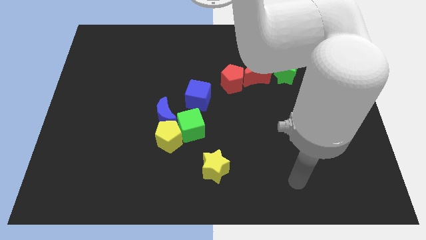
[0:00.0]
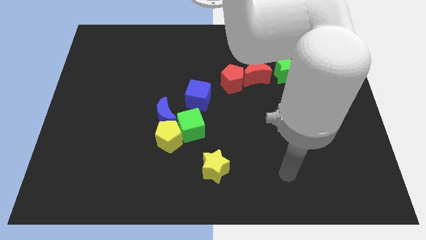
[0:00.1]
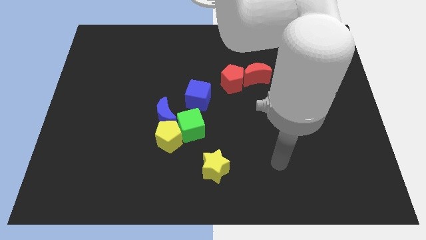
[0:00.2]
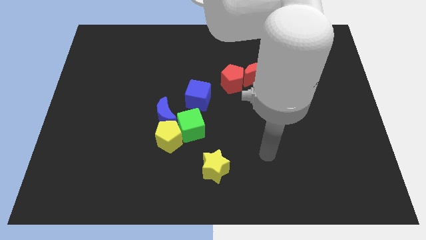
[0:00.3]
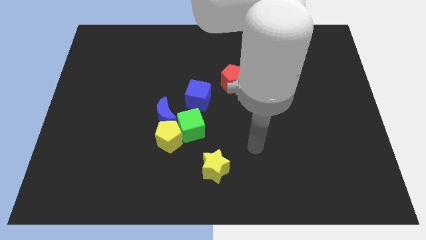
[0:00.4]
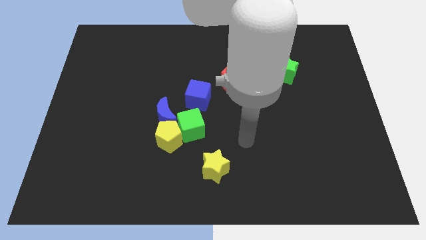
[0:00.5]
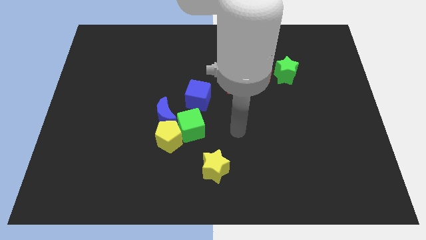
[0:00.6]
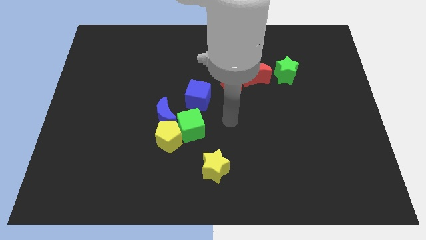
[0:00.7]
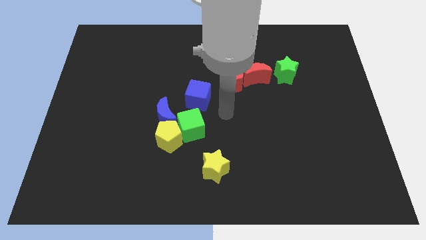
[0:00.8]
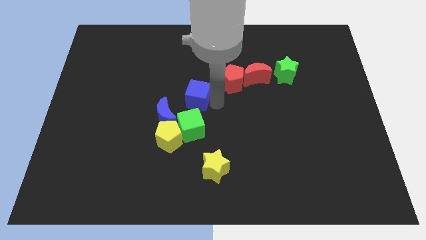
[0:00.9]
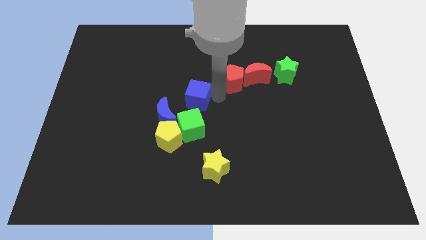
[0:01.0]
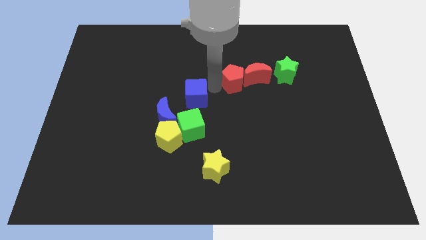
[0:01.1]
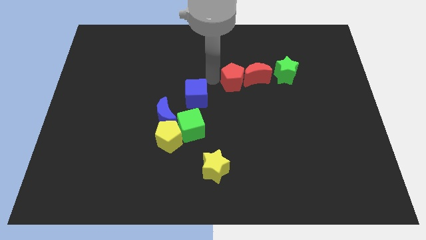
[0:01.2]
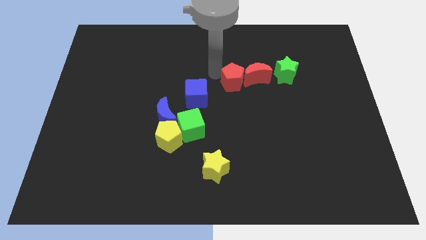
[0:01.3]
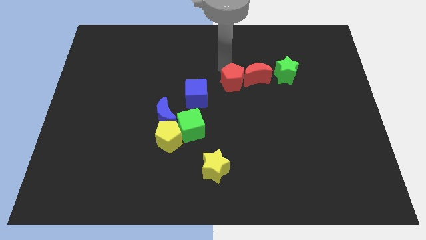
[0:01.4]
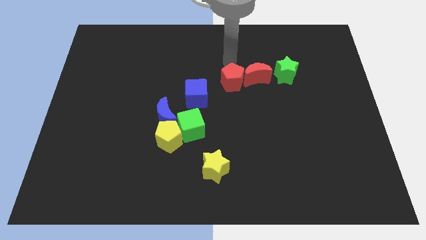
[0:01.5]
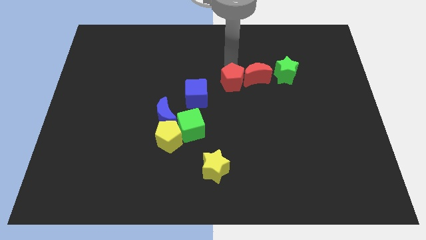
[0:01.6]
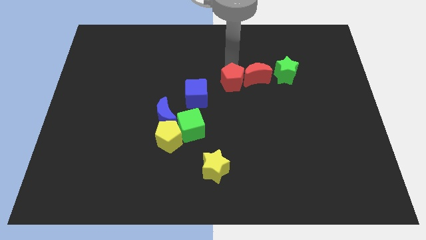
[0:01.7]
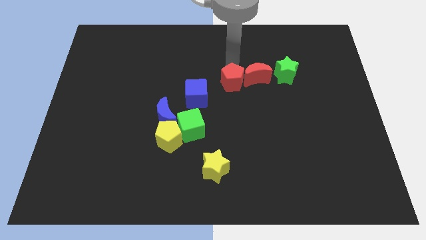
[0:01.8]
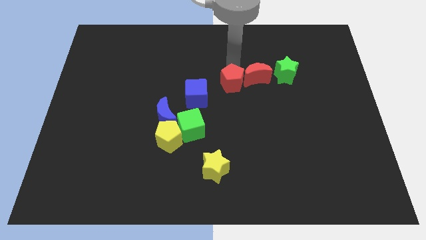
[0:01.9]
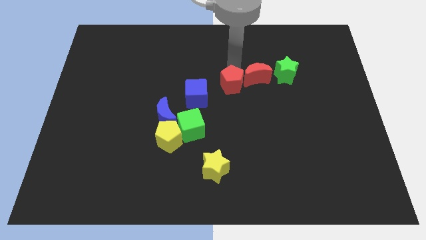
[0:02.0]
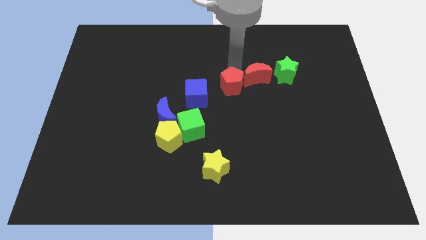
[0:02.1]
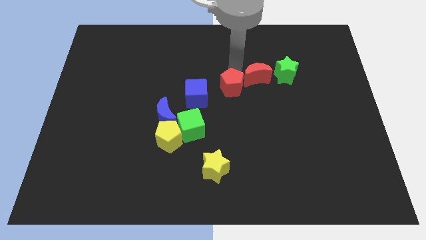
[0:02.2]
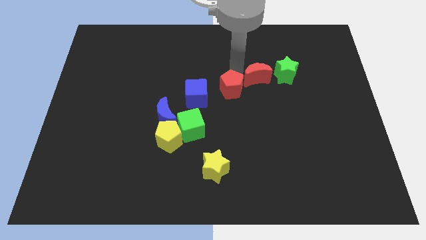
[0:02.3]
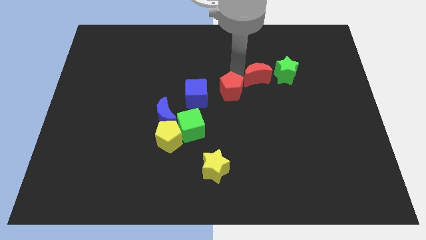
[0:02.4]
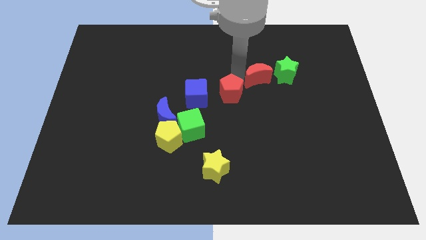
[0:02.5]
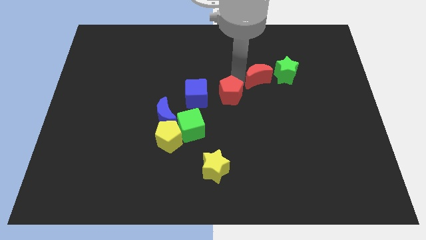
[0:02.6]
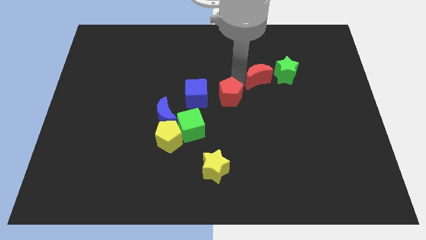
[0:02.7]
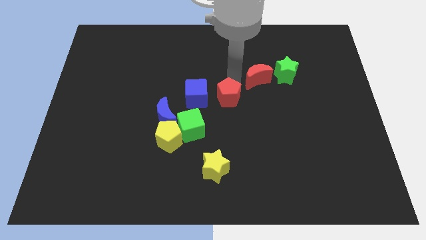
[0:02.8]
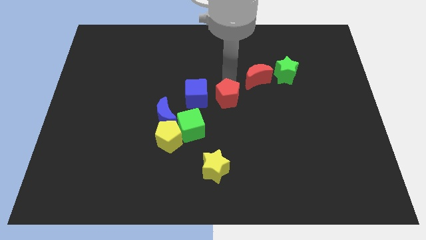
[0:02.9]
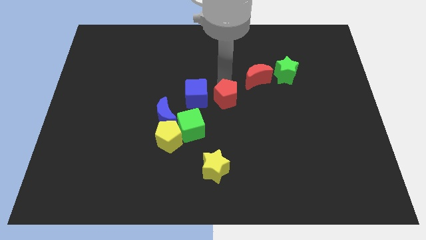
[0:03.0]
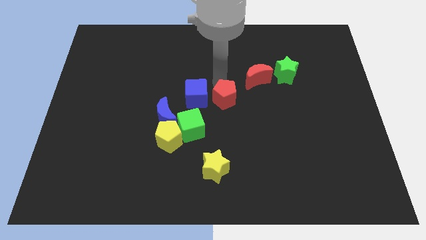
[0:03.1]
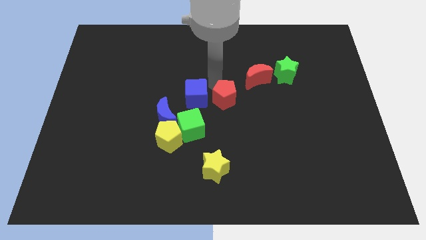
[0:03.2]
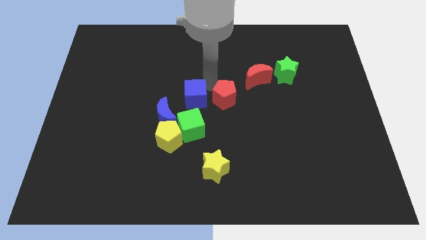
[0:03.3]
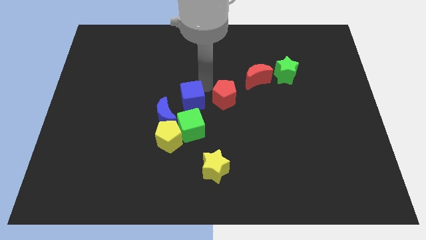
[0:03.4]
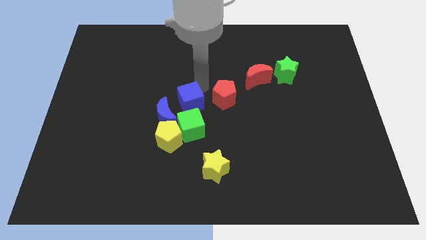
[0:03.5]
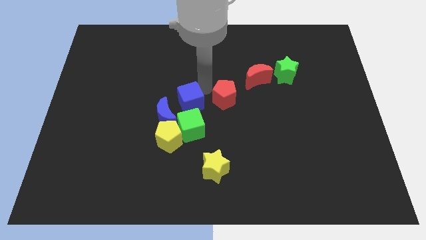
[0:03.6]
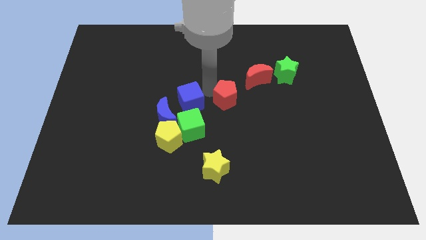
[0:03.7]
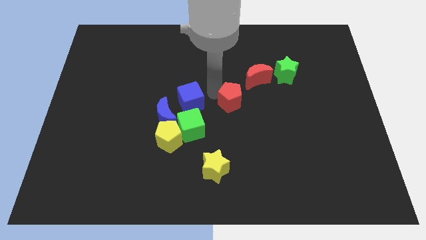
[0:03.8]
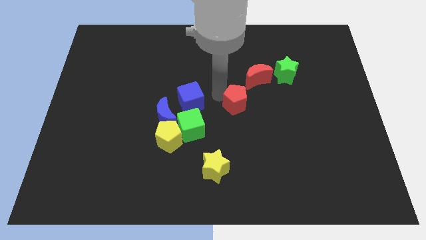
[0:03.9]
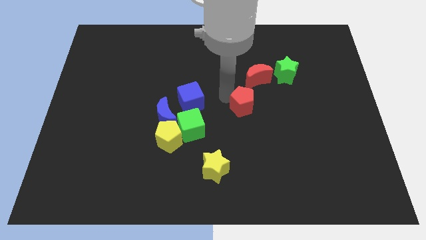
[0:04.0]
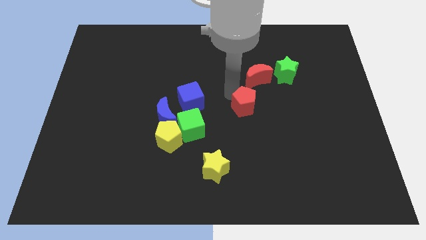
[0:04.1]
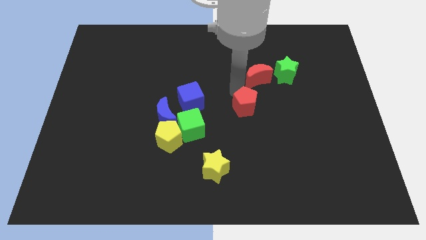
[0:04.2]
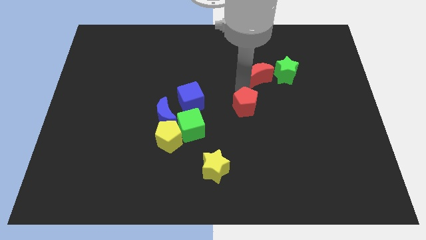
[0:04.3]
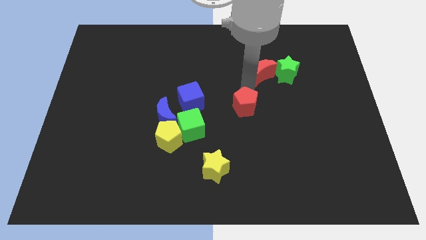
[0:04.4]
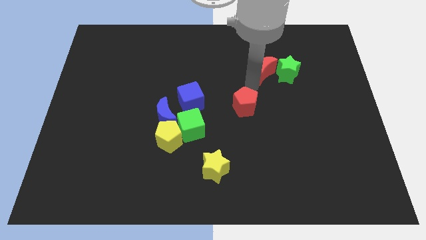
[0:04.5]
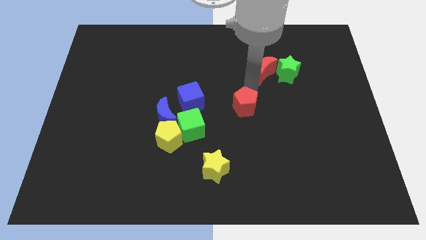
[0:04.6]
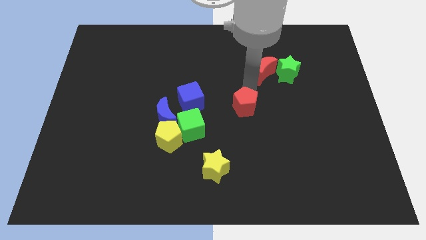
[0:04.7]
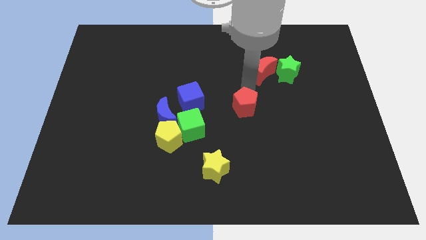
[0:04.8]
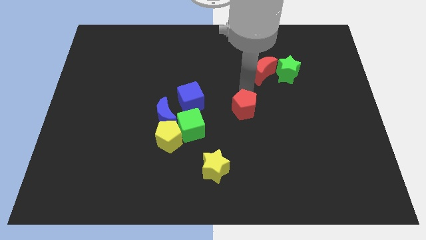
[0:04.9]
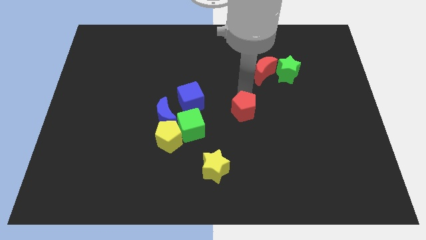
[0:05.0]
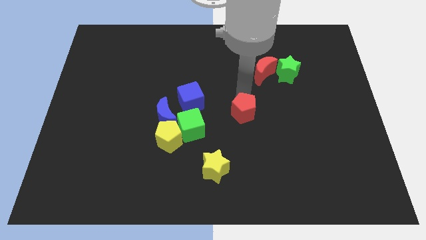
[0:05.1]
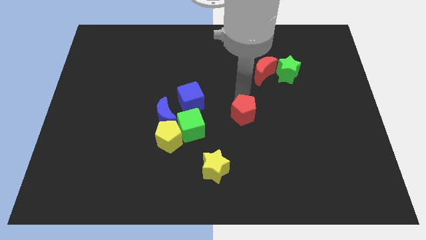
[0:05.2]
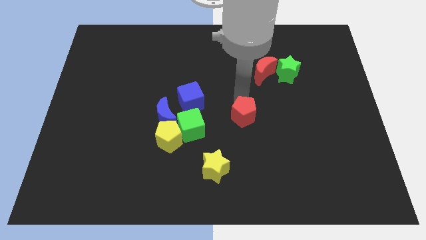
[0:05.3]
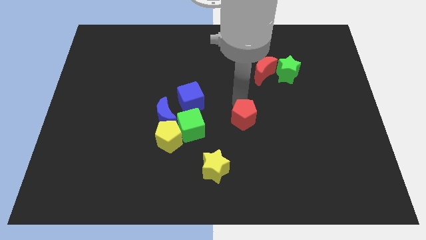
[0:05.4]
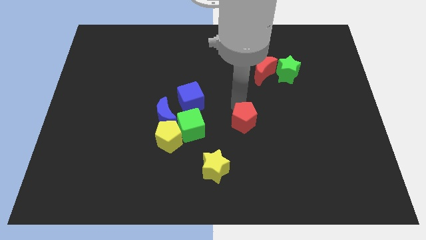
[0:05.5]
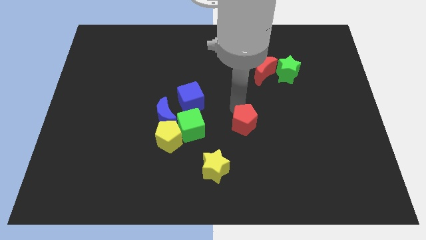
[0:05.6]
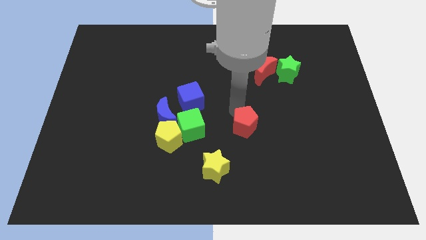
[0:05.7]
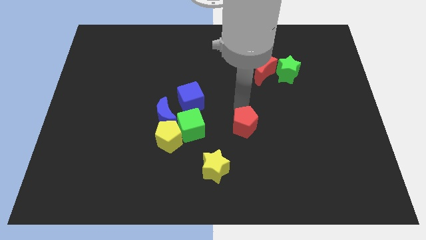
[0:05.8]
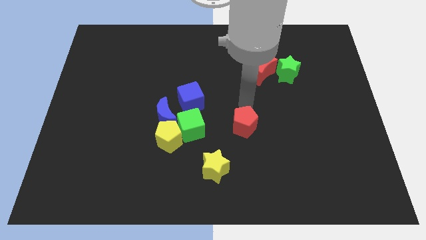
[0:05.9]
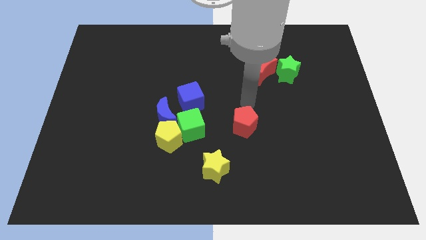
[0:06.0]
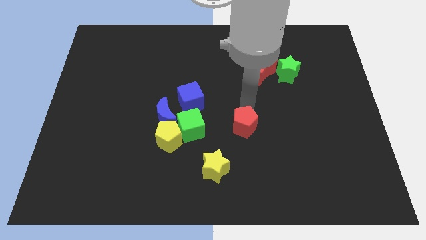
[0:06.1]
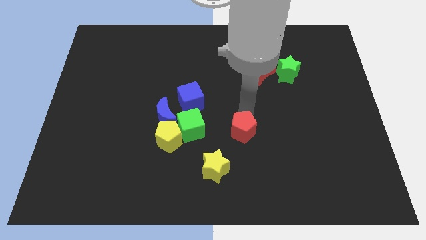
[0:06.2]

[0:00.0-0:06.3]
move the red pentagon diagonally up and to the right of the yellow star
